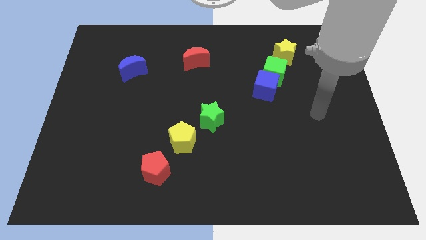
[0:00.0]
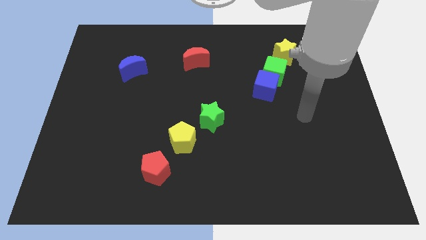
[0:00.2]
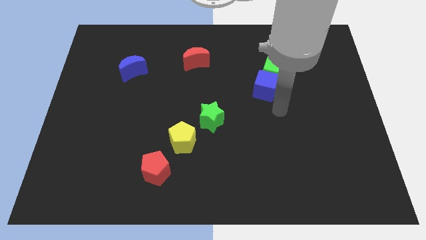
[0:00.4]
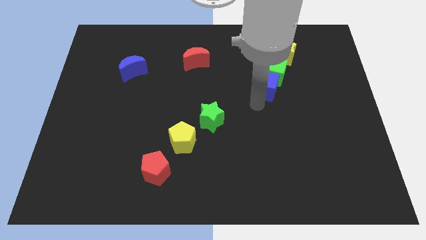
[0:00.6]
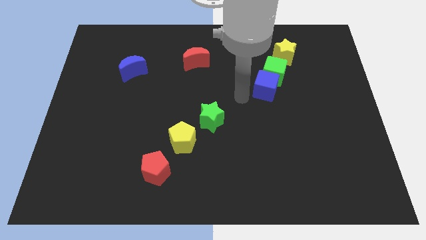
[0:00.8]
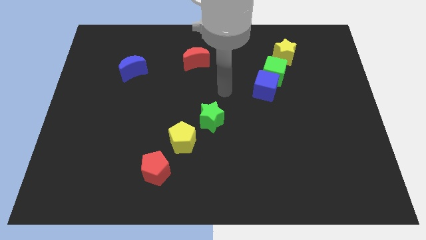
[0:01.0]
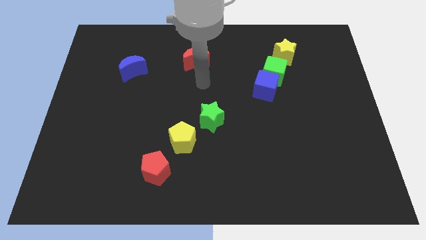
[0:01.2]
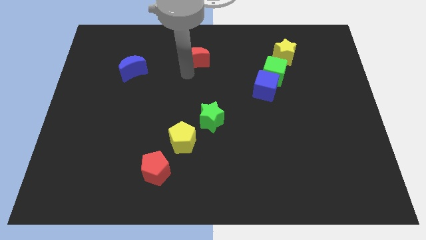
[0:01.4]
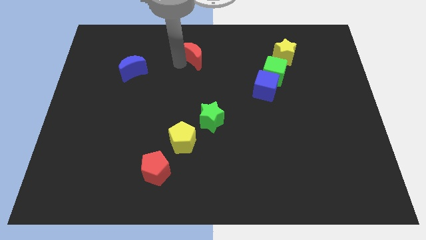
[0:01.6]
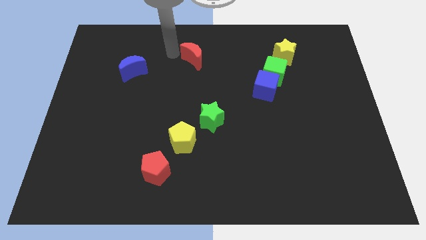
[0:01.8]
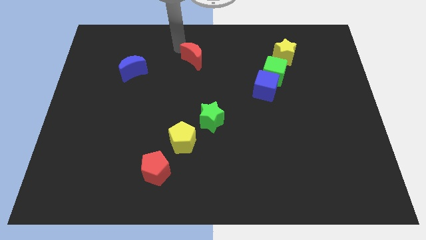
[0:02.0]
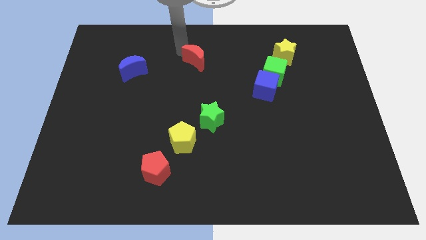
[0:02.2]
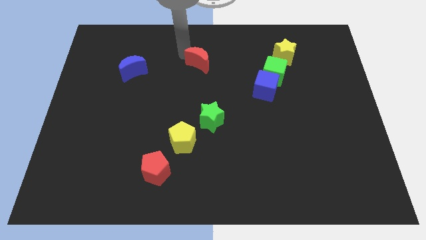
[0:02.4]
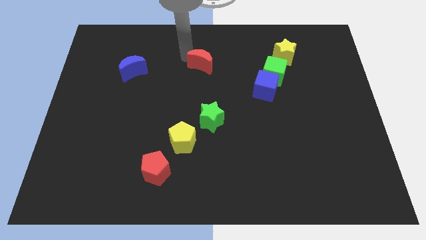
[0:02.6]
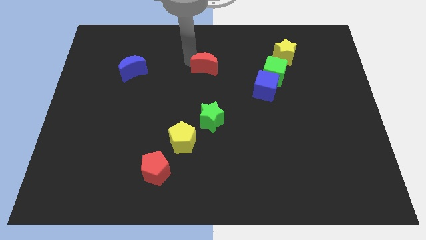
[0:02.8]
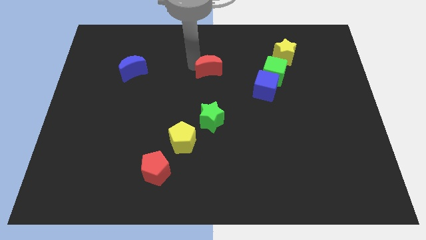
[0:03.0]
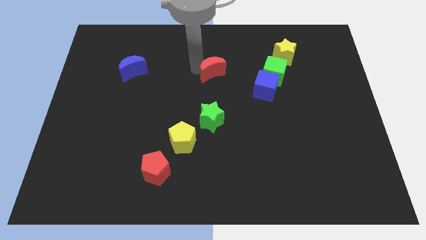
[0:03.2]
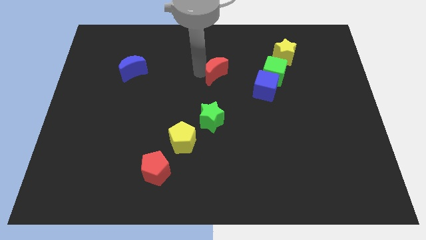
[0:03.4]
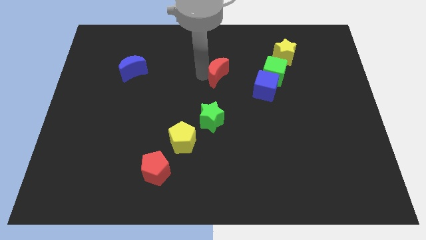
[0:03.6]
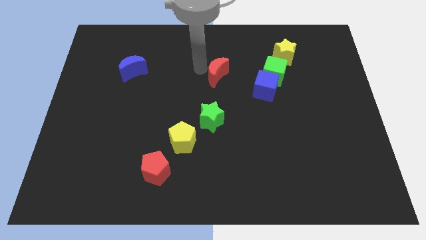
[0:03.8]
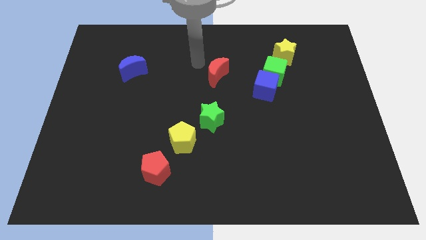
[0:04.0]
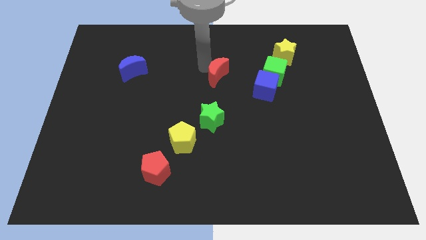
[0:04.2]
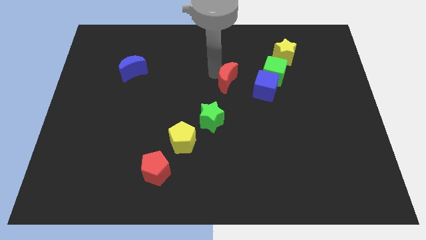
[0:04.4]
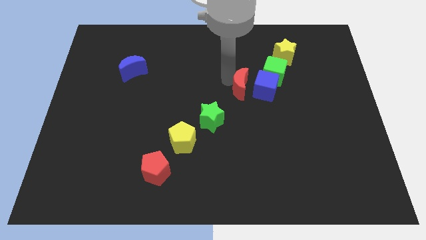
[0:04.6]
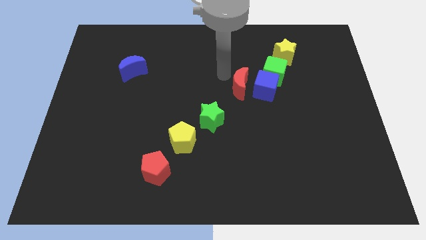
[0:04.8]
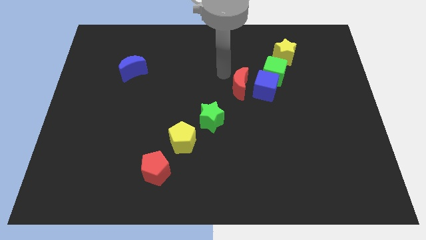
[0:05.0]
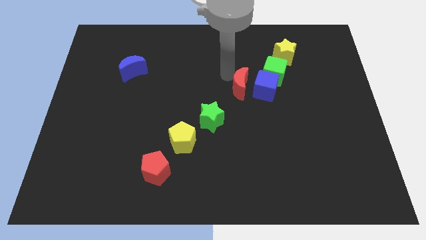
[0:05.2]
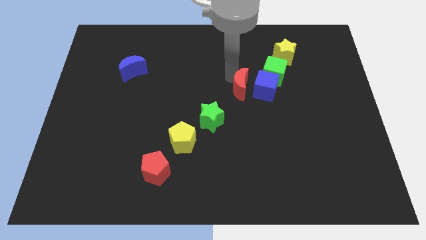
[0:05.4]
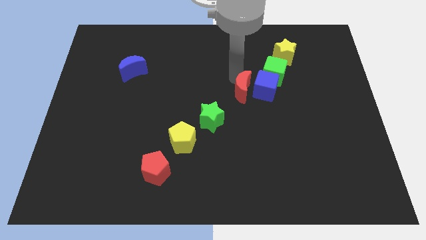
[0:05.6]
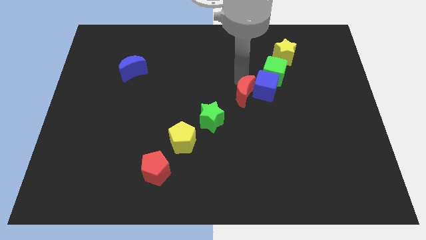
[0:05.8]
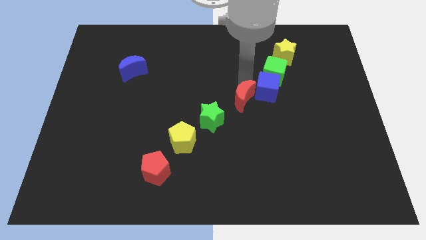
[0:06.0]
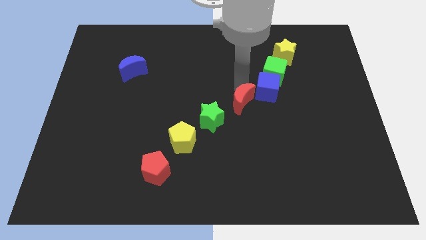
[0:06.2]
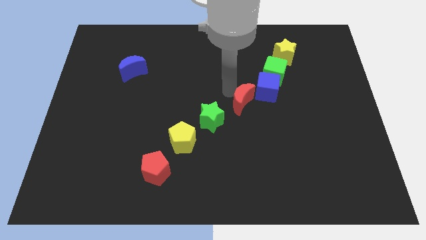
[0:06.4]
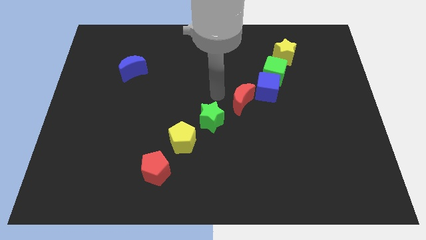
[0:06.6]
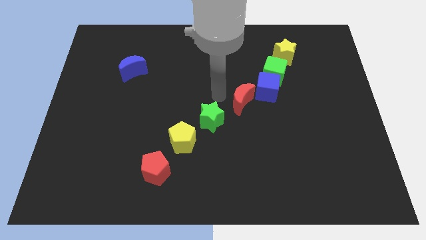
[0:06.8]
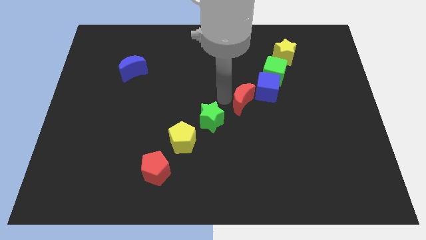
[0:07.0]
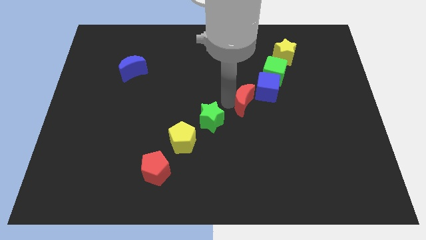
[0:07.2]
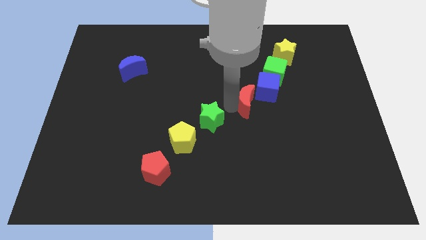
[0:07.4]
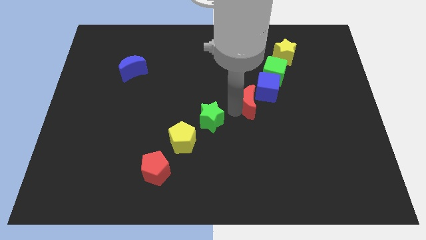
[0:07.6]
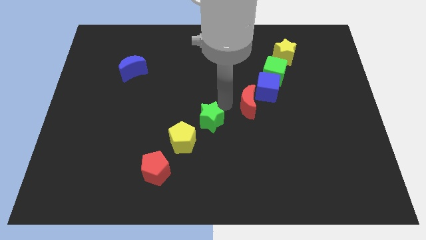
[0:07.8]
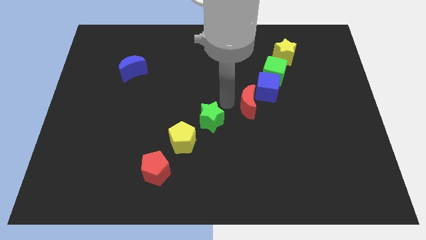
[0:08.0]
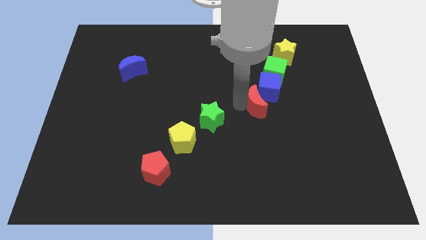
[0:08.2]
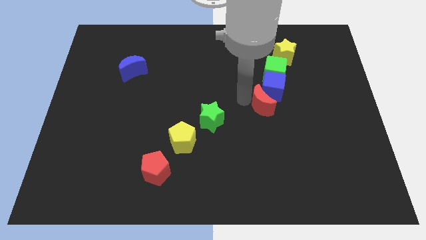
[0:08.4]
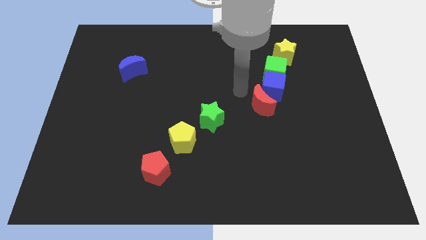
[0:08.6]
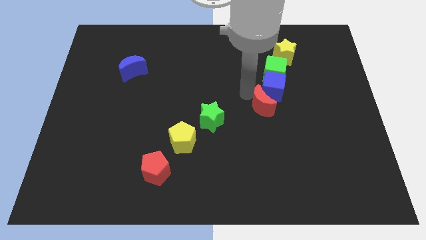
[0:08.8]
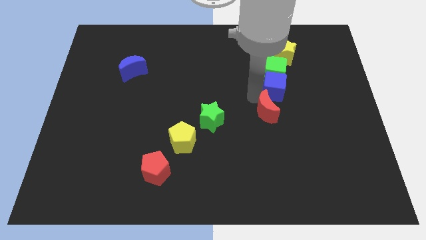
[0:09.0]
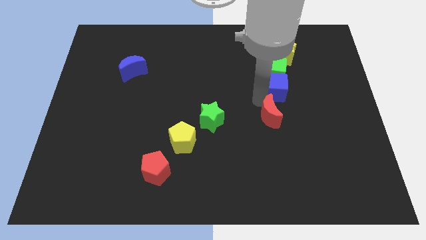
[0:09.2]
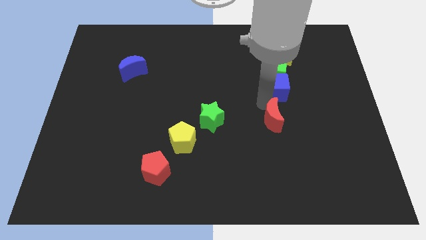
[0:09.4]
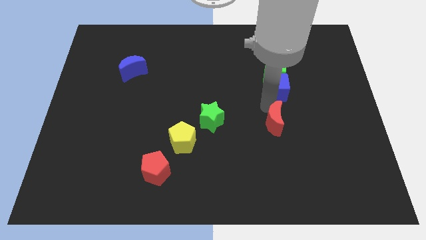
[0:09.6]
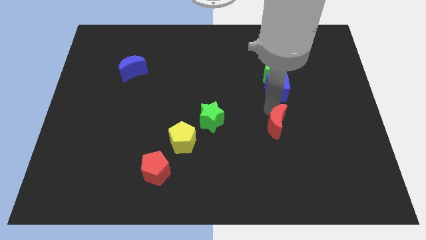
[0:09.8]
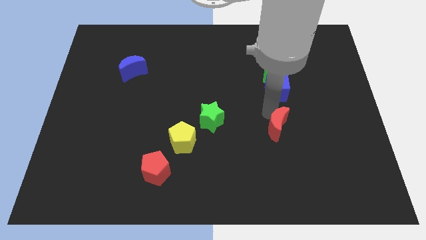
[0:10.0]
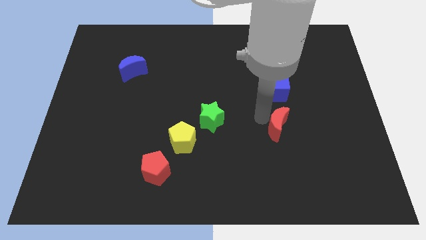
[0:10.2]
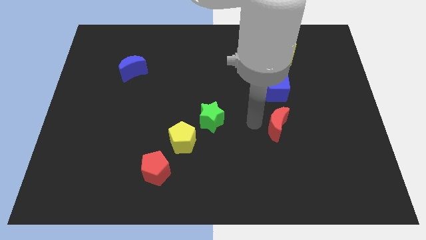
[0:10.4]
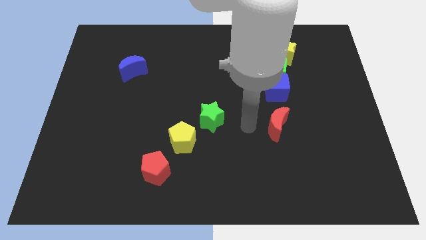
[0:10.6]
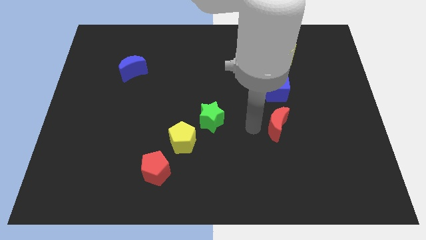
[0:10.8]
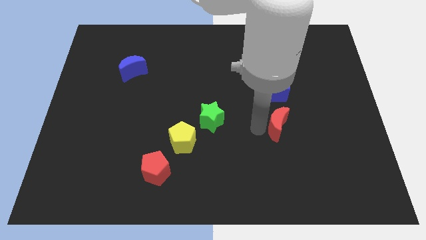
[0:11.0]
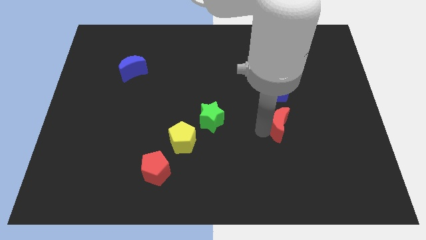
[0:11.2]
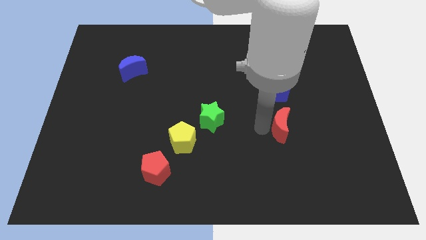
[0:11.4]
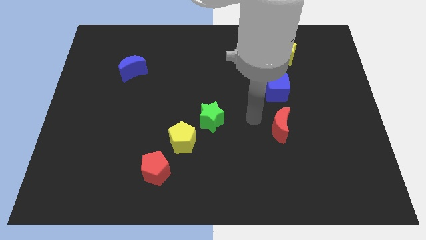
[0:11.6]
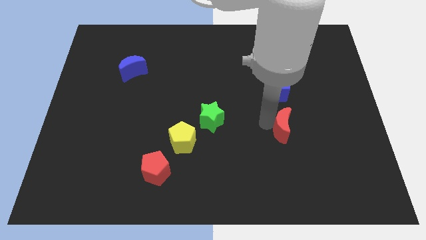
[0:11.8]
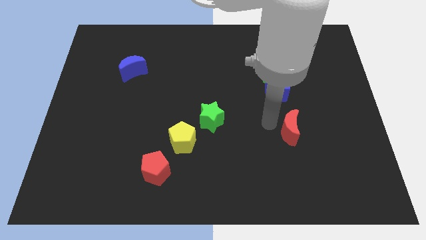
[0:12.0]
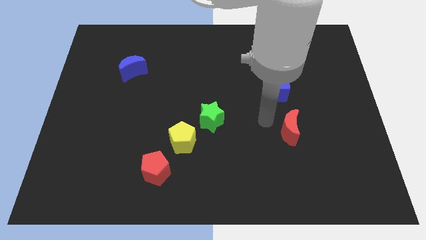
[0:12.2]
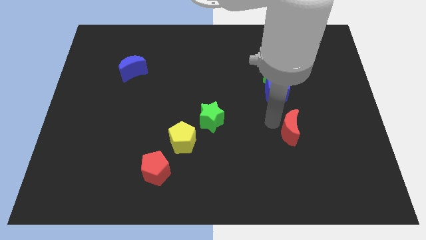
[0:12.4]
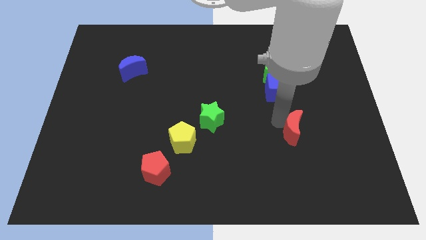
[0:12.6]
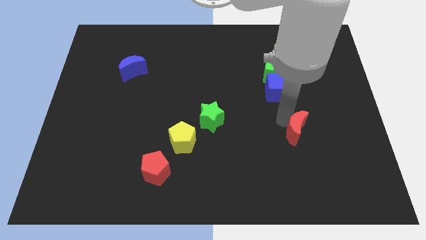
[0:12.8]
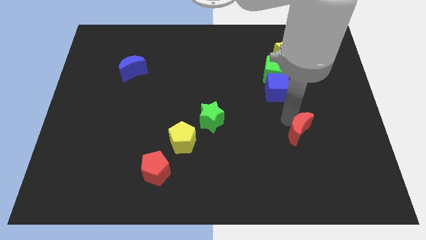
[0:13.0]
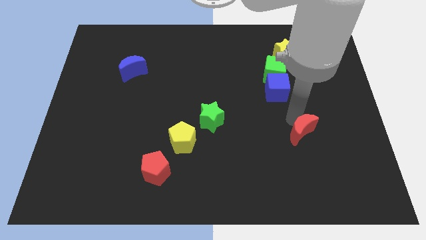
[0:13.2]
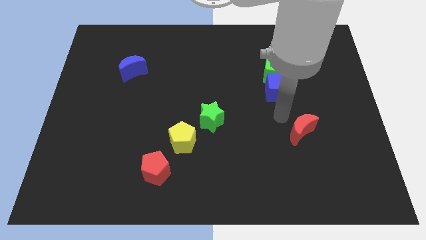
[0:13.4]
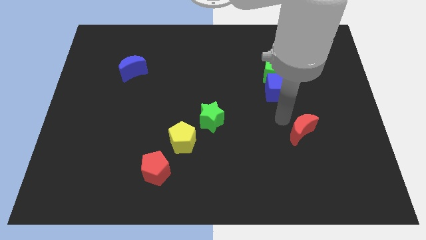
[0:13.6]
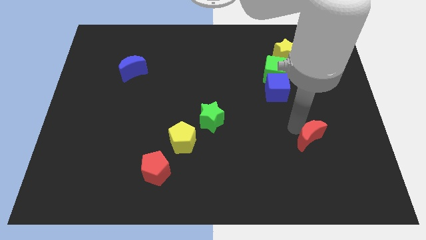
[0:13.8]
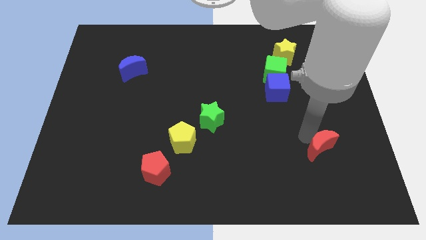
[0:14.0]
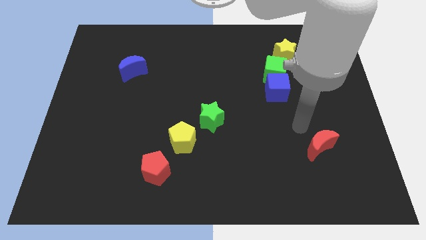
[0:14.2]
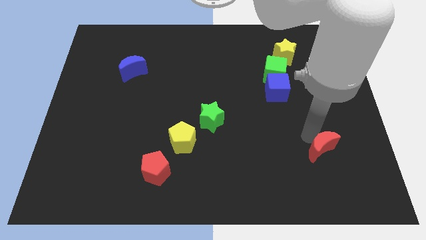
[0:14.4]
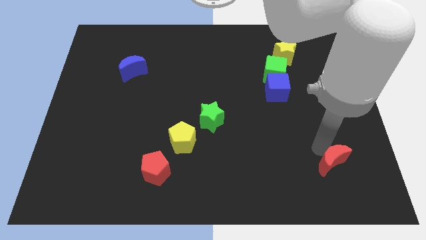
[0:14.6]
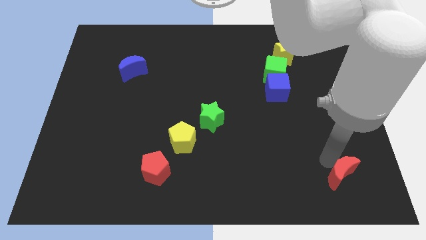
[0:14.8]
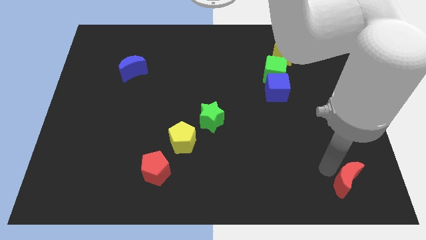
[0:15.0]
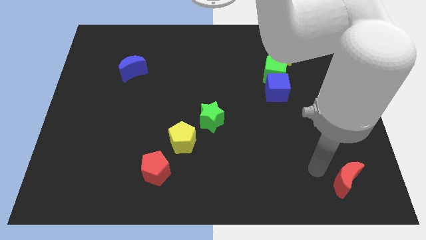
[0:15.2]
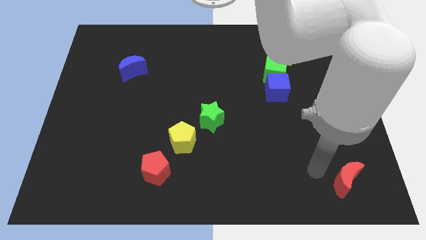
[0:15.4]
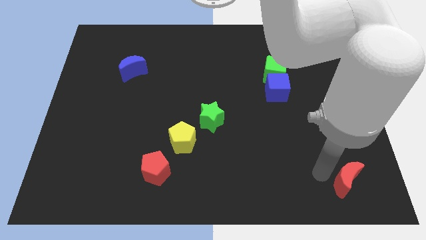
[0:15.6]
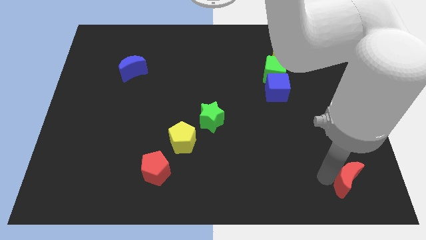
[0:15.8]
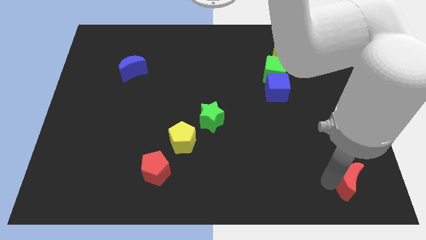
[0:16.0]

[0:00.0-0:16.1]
slide the red moon to the lower right corner
